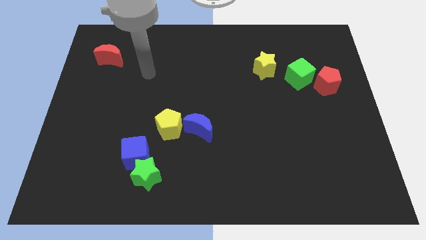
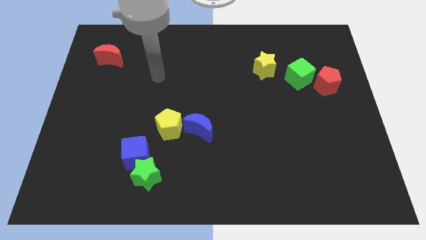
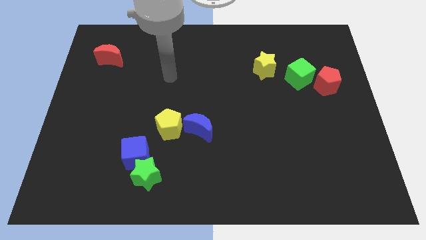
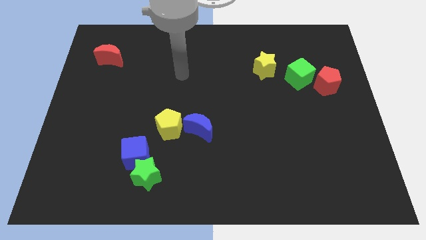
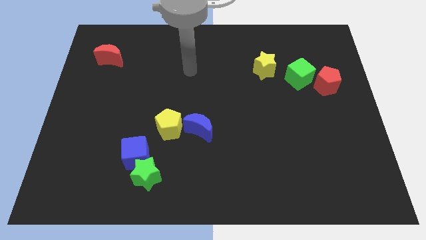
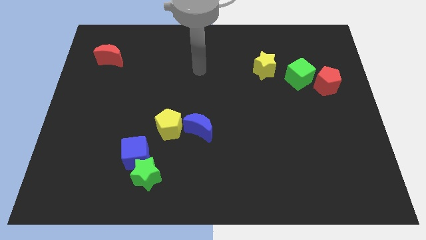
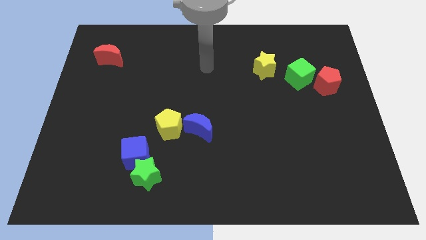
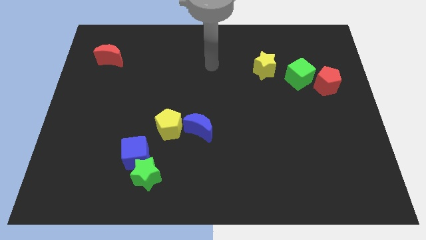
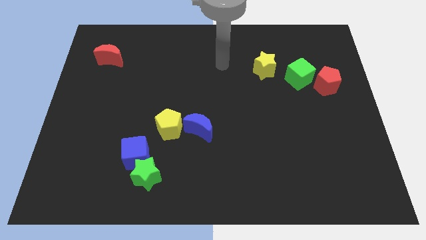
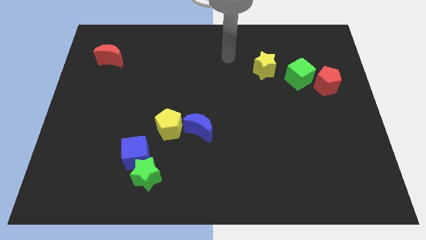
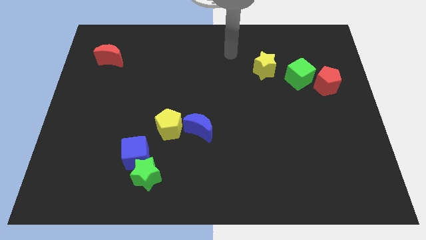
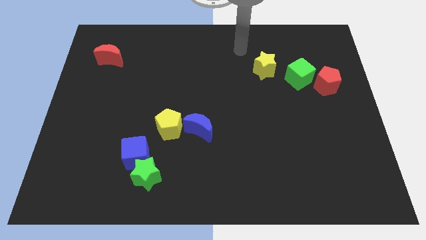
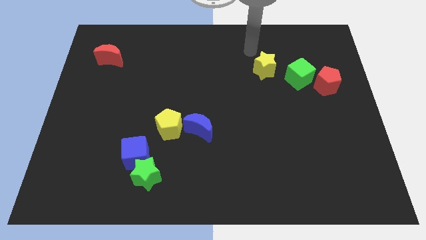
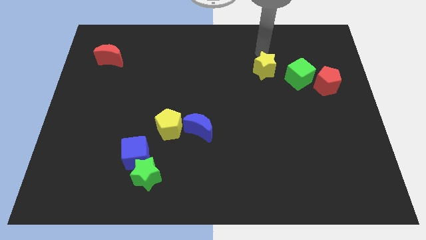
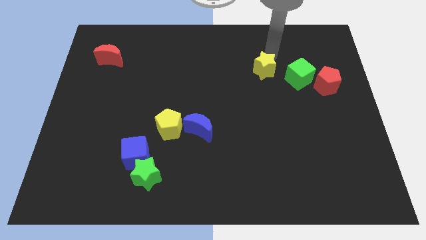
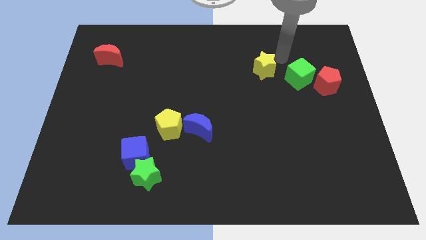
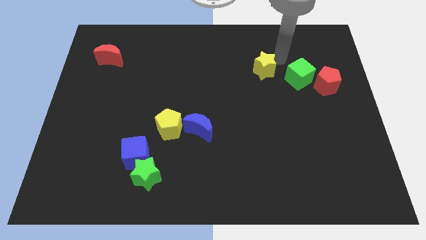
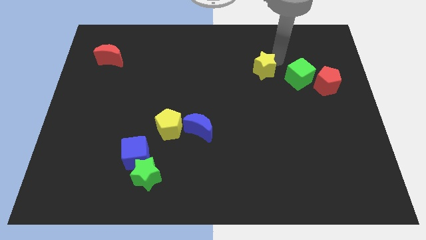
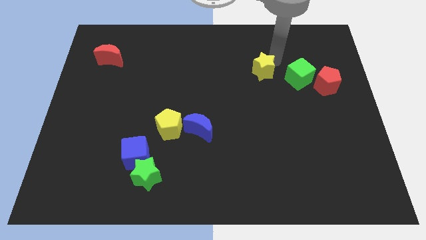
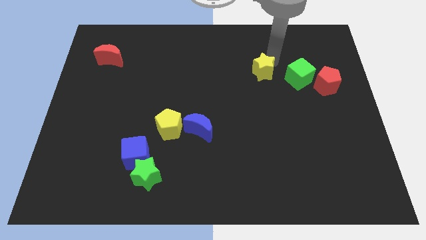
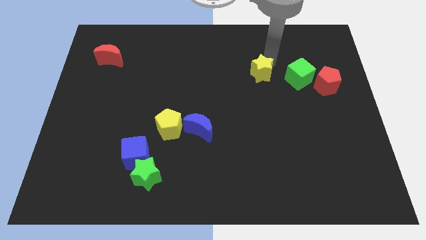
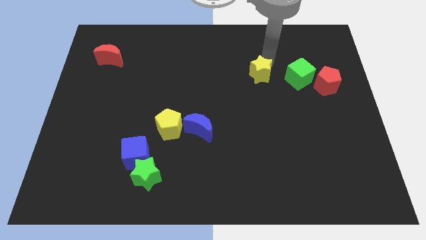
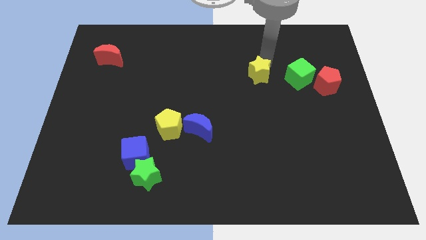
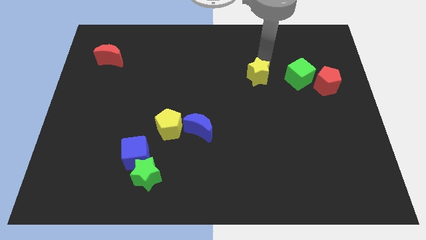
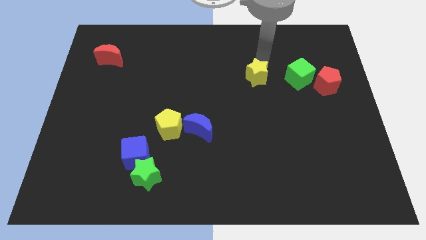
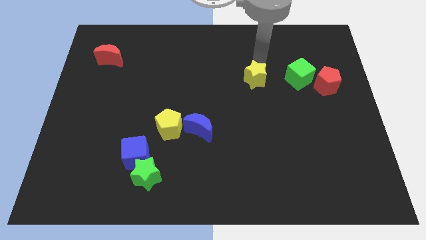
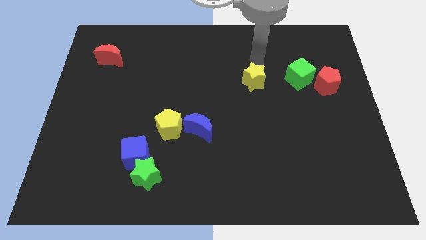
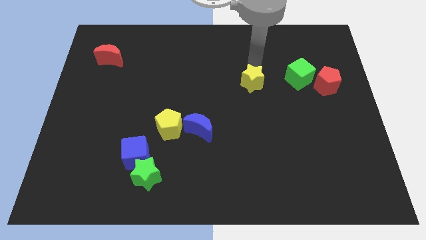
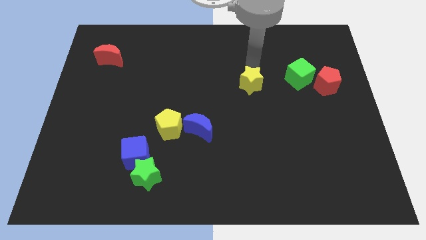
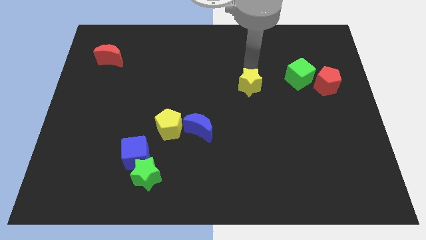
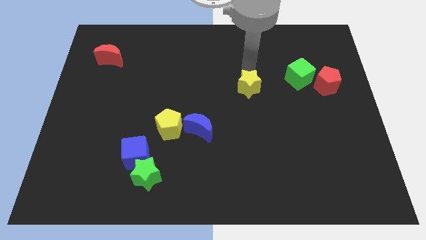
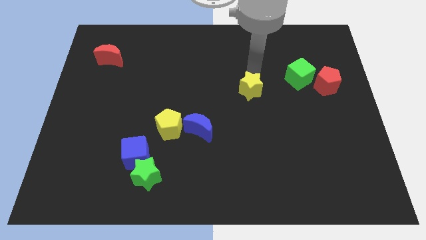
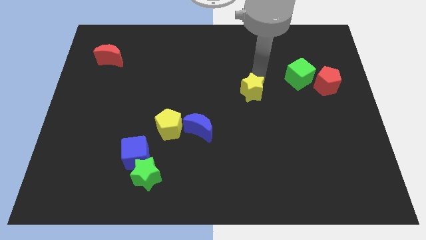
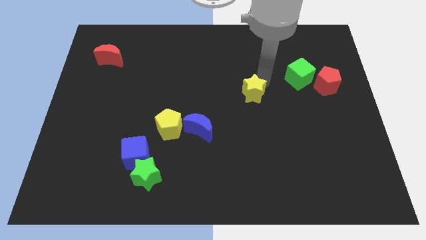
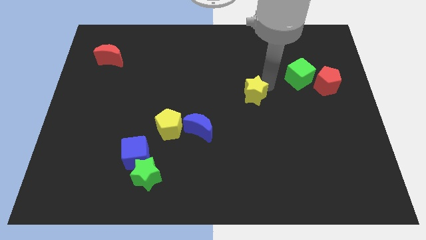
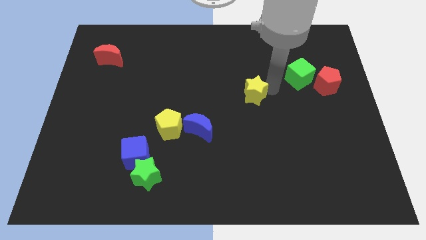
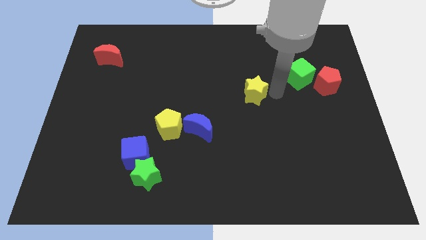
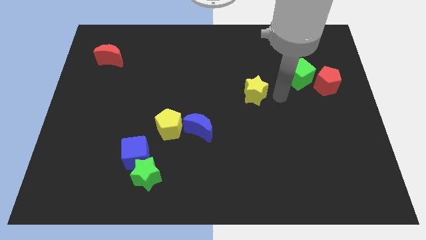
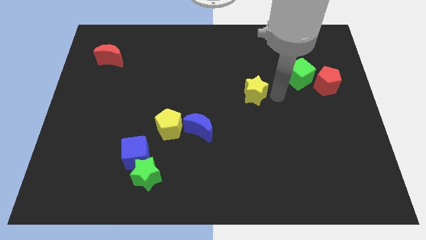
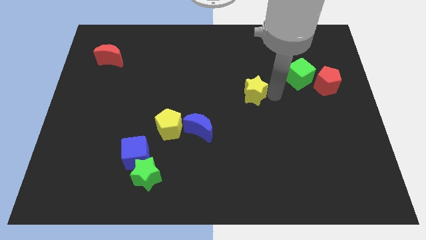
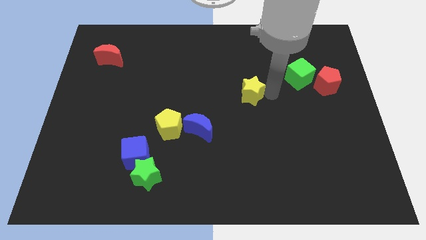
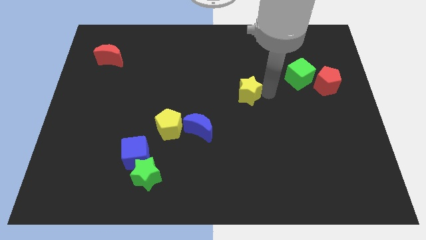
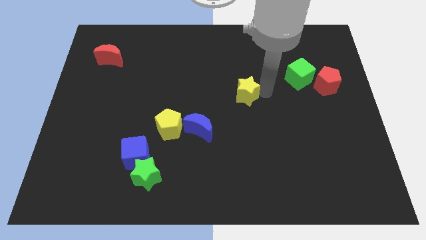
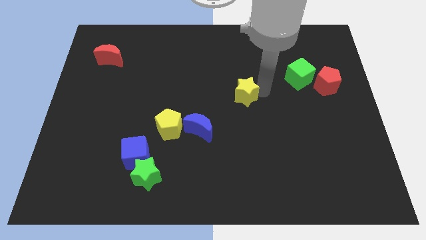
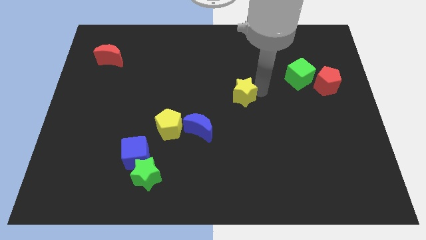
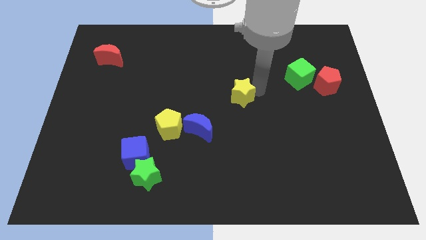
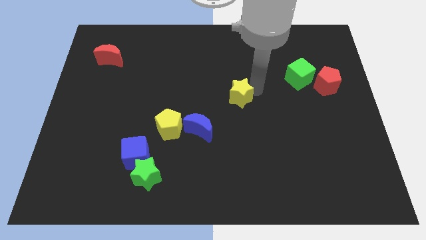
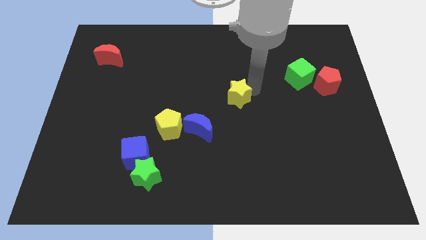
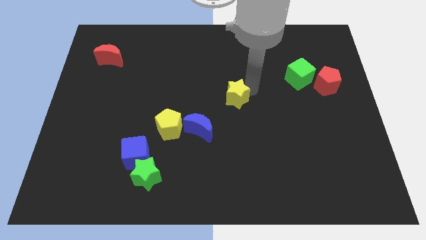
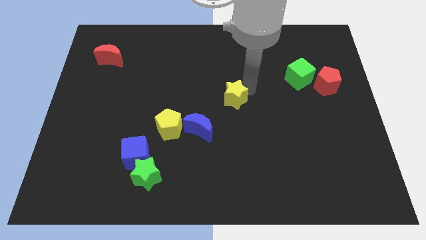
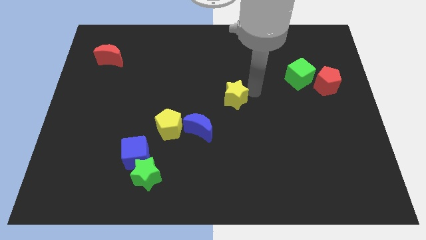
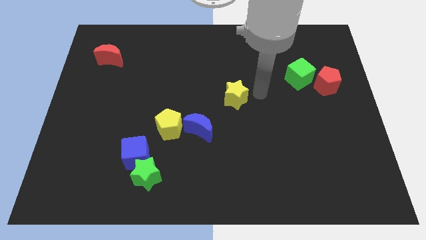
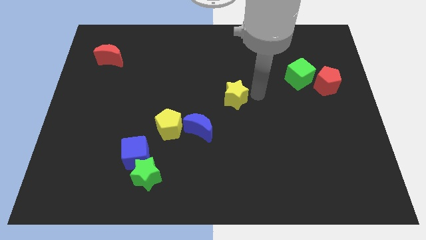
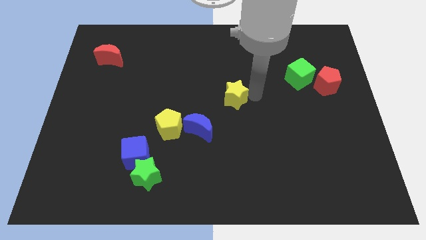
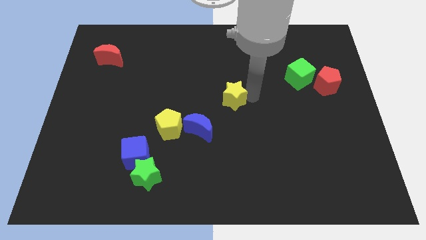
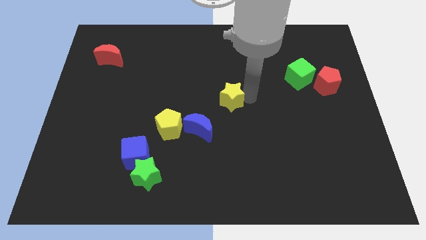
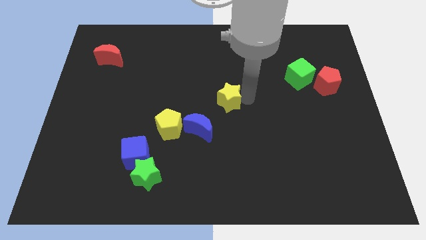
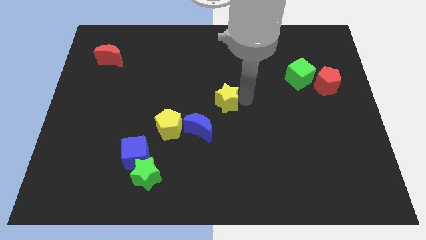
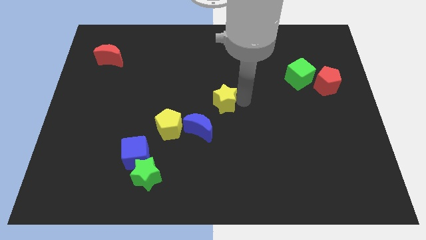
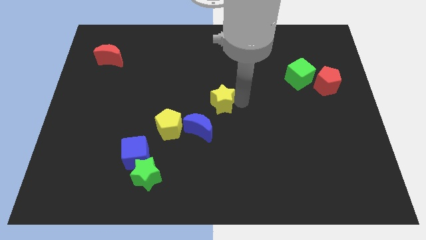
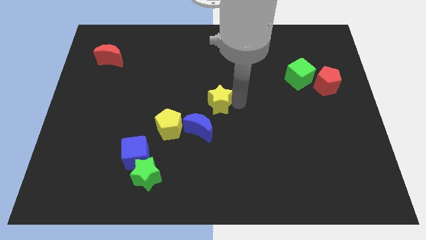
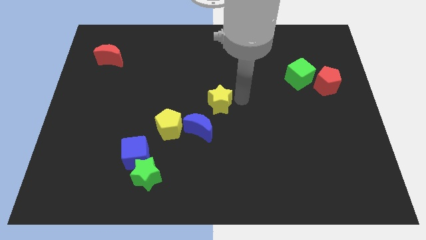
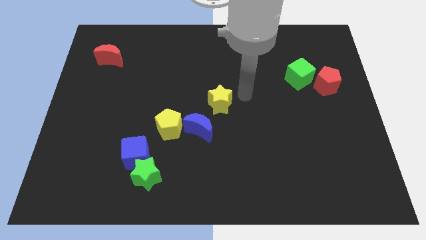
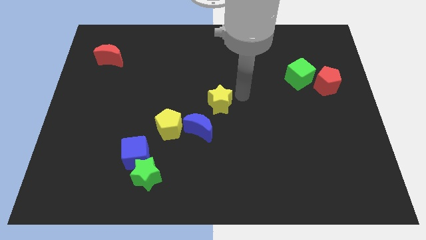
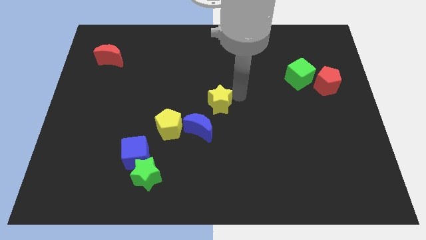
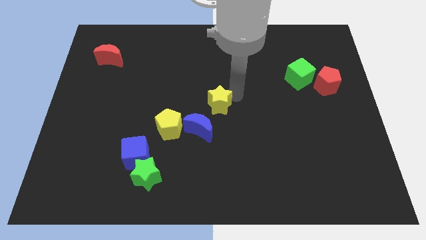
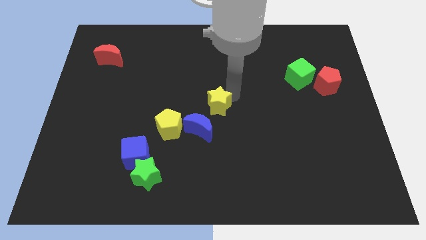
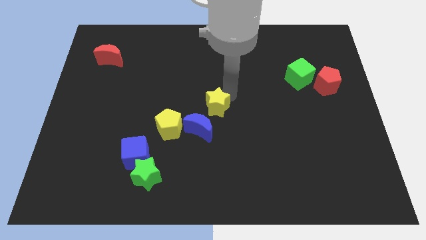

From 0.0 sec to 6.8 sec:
move the yellow star to the top right of the yellow pentagon
